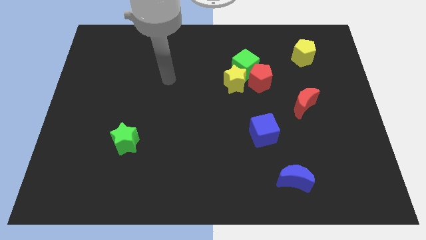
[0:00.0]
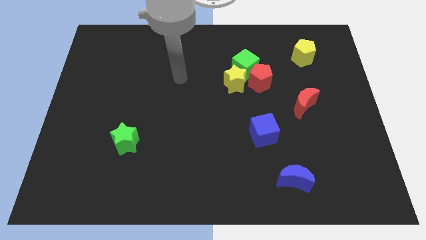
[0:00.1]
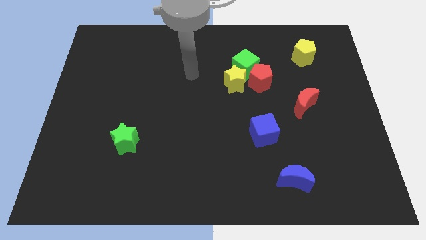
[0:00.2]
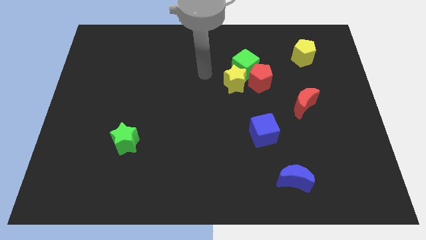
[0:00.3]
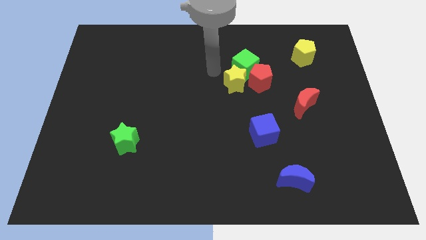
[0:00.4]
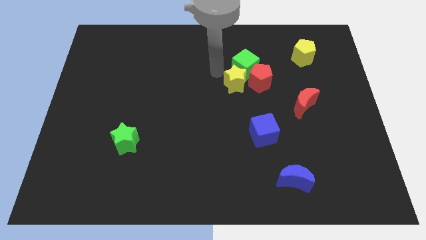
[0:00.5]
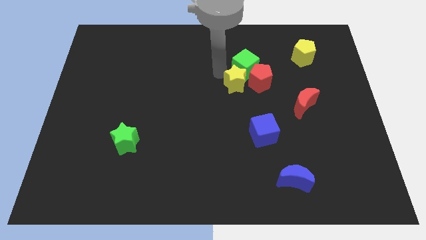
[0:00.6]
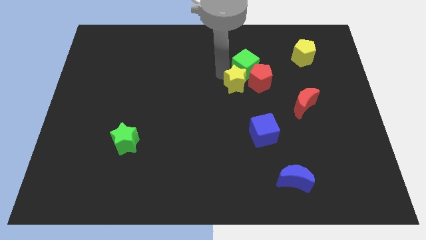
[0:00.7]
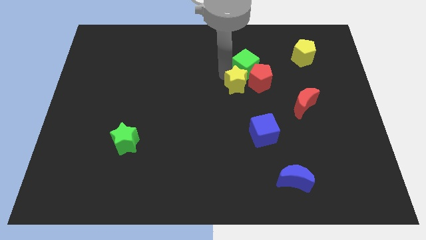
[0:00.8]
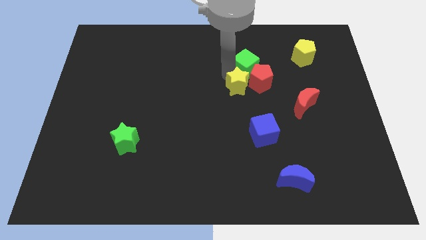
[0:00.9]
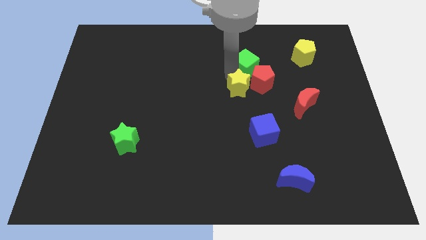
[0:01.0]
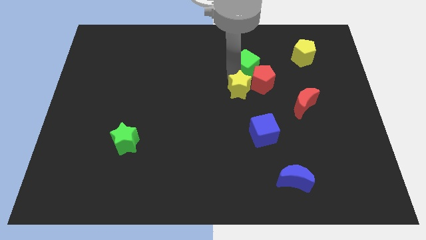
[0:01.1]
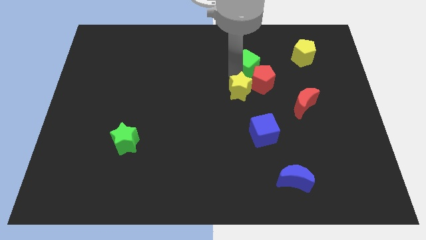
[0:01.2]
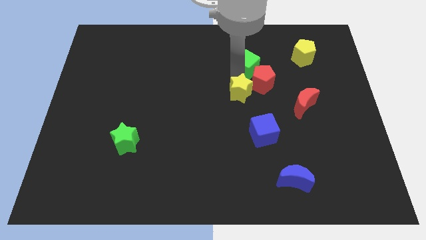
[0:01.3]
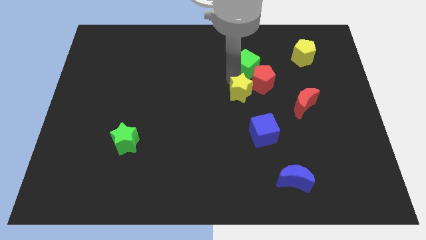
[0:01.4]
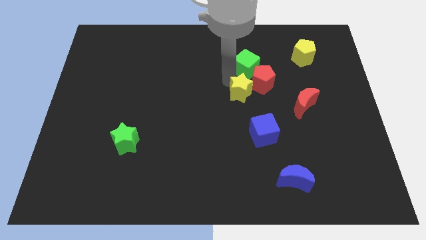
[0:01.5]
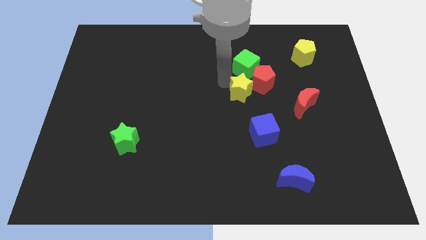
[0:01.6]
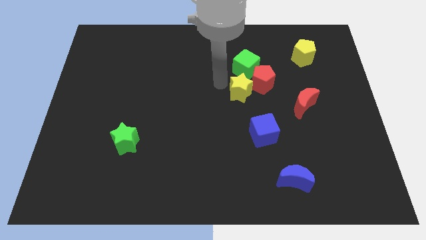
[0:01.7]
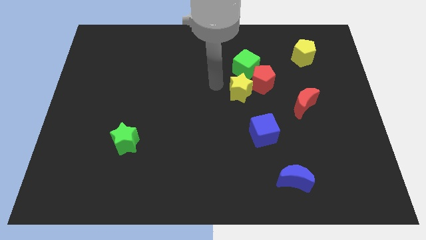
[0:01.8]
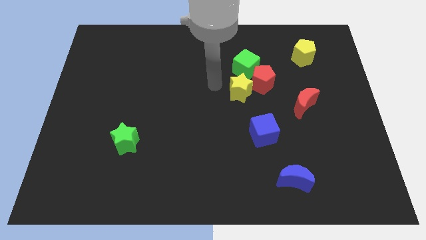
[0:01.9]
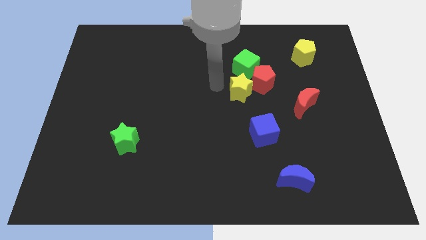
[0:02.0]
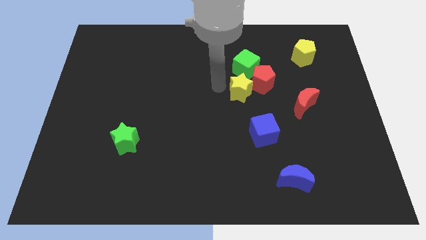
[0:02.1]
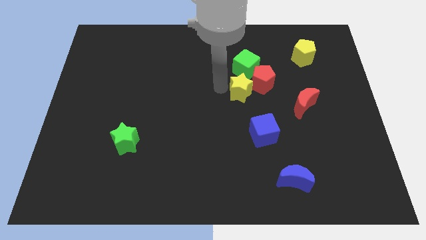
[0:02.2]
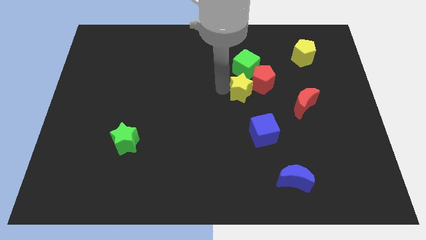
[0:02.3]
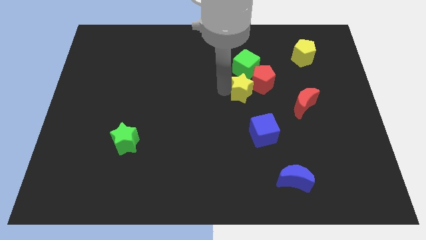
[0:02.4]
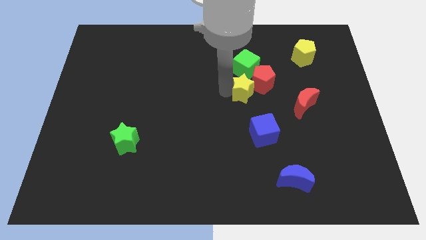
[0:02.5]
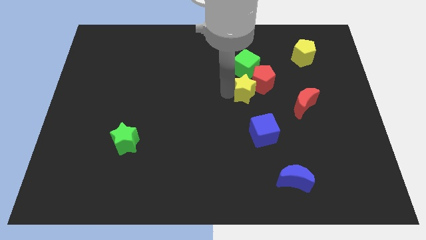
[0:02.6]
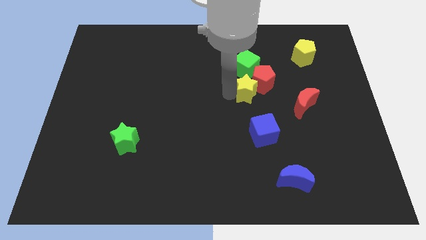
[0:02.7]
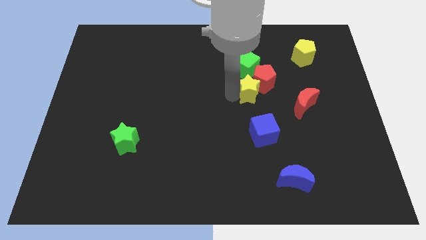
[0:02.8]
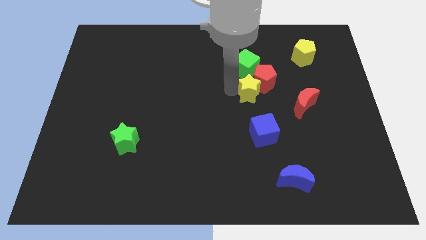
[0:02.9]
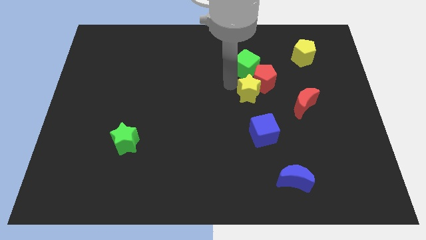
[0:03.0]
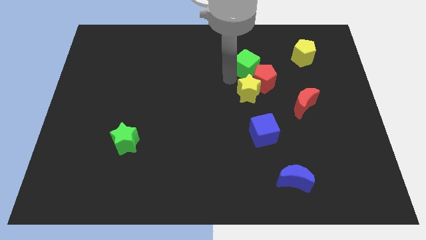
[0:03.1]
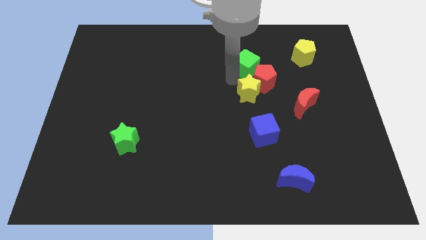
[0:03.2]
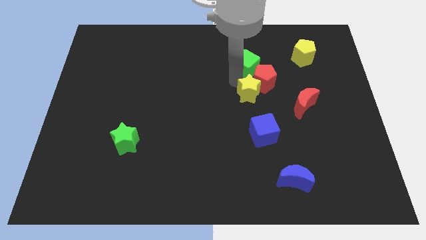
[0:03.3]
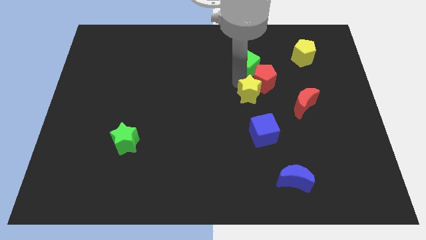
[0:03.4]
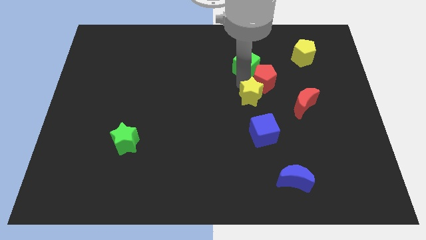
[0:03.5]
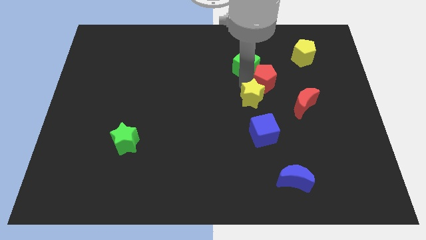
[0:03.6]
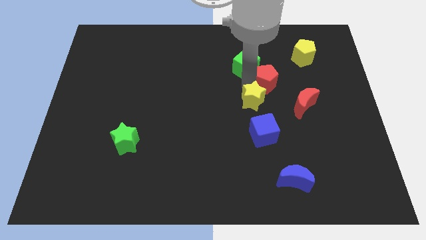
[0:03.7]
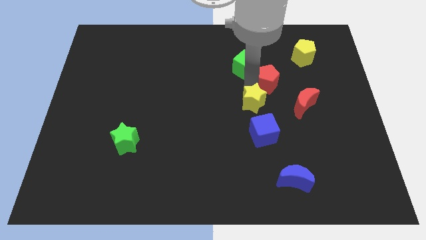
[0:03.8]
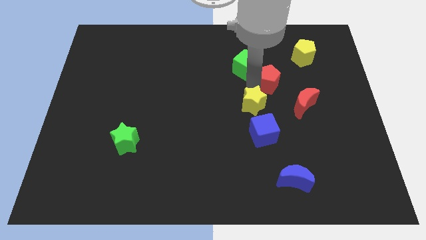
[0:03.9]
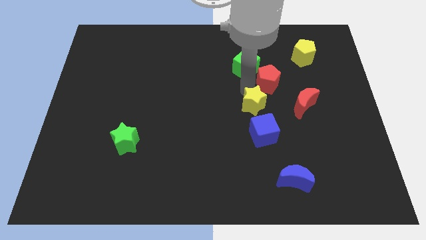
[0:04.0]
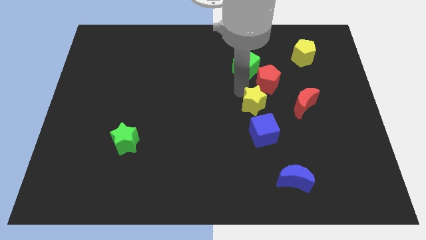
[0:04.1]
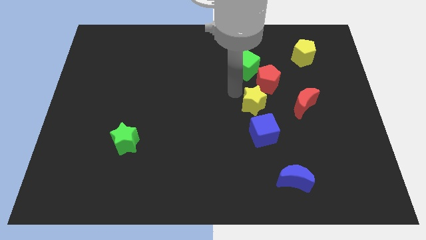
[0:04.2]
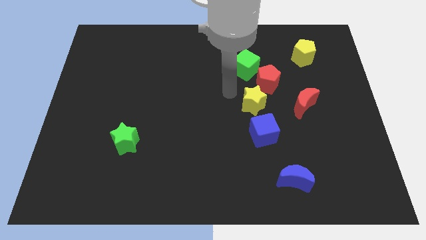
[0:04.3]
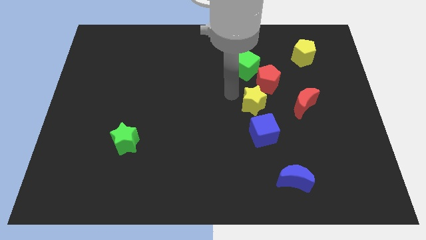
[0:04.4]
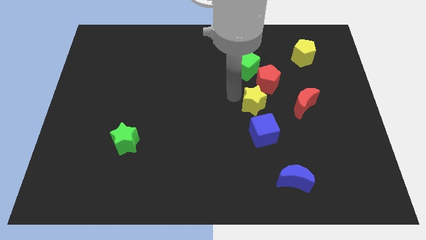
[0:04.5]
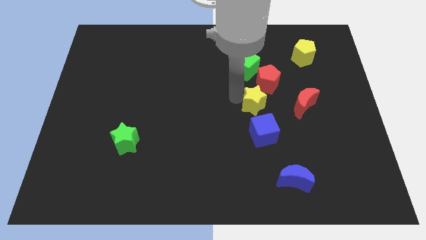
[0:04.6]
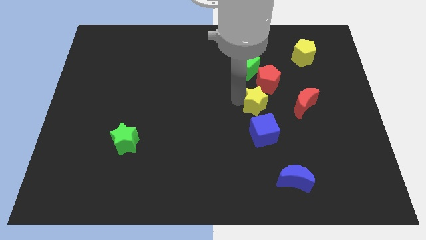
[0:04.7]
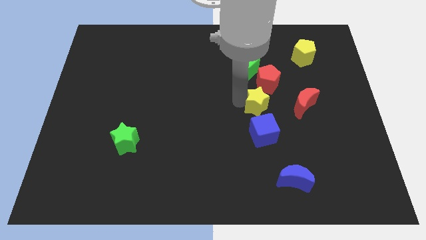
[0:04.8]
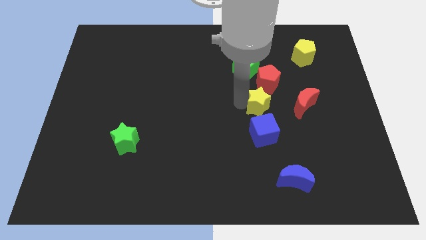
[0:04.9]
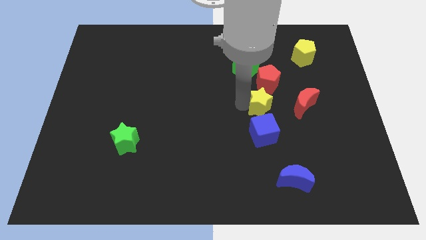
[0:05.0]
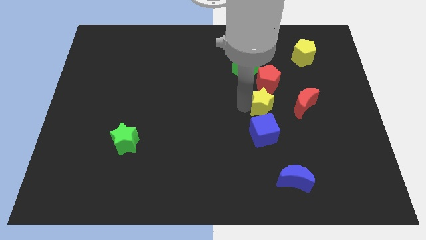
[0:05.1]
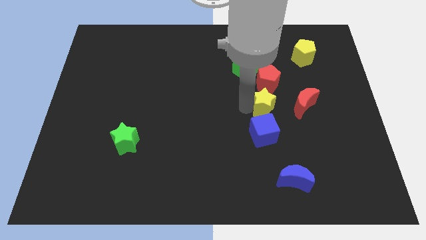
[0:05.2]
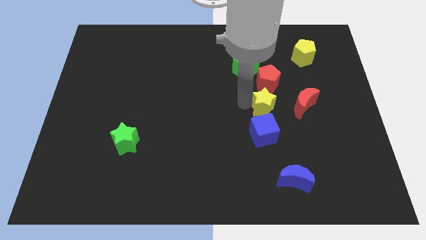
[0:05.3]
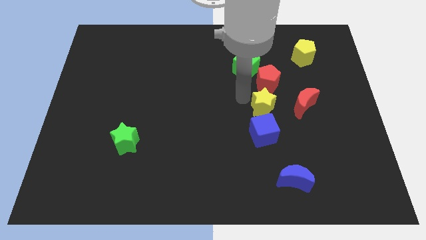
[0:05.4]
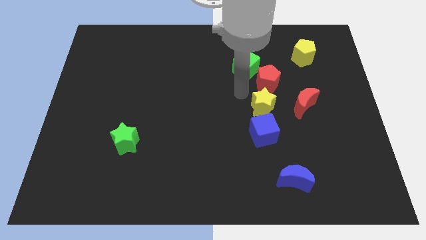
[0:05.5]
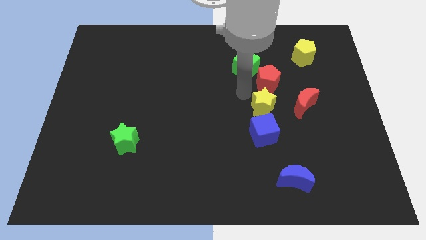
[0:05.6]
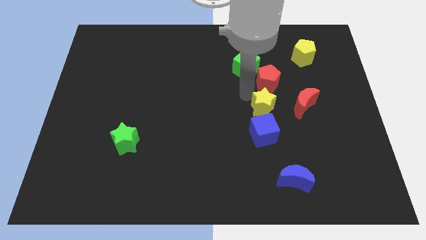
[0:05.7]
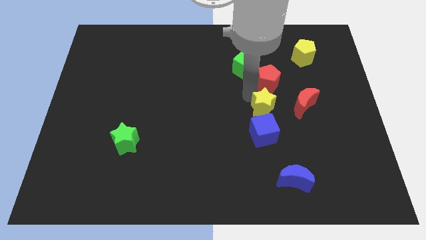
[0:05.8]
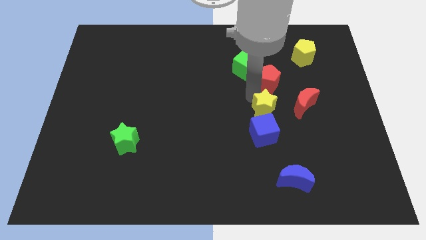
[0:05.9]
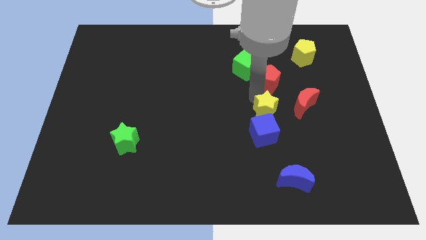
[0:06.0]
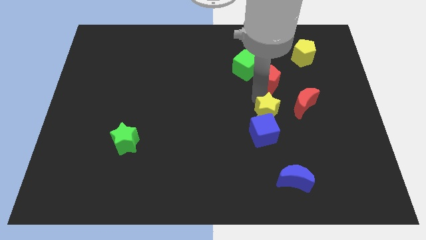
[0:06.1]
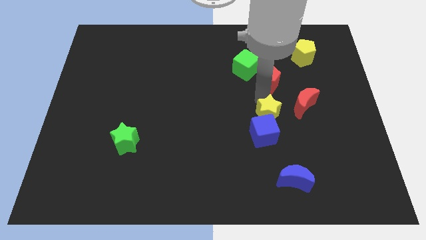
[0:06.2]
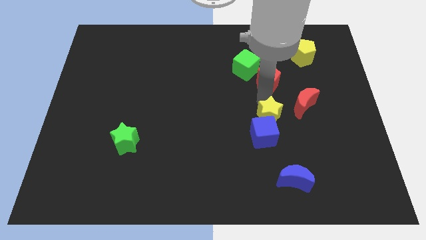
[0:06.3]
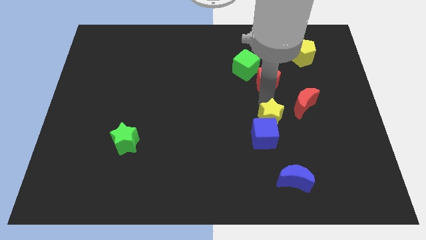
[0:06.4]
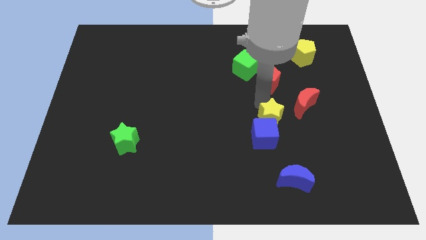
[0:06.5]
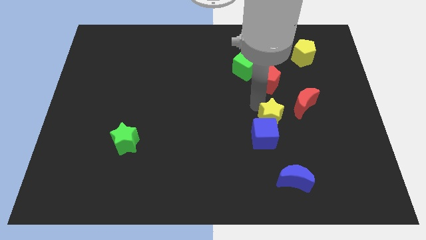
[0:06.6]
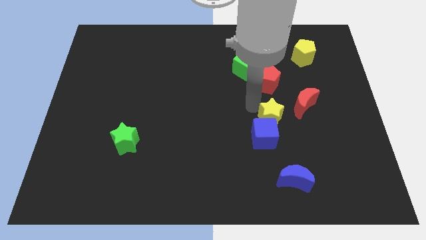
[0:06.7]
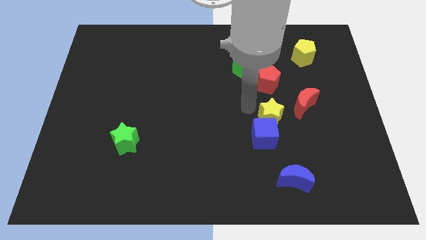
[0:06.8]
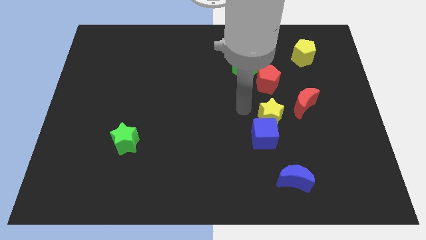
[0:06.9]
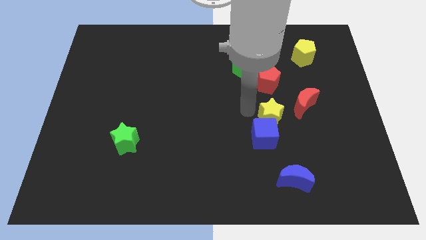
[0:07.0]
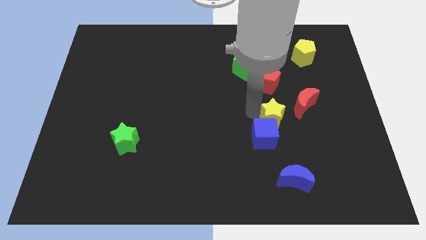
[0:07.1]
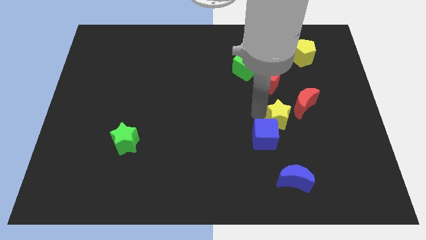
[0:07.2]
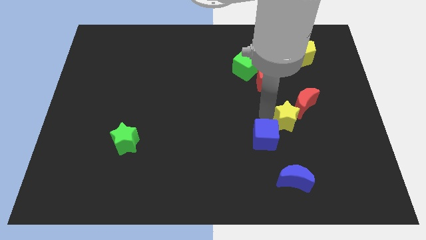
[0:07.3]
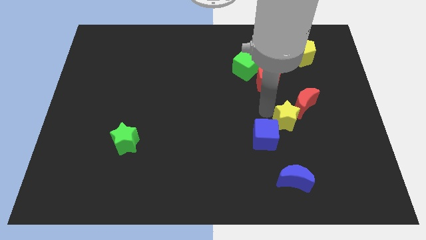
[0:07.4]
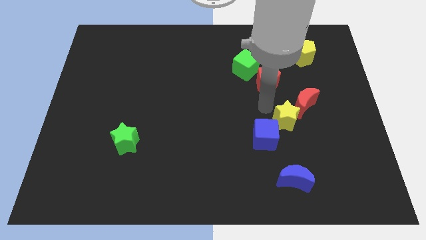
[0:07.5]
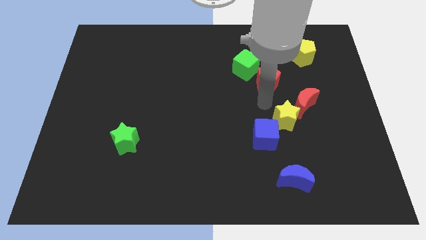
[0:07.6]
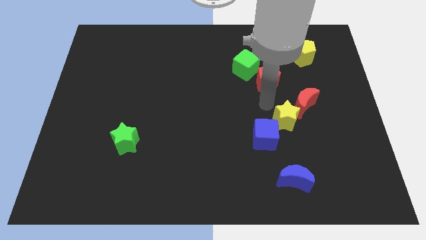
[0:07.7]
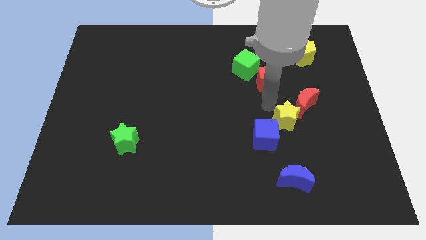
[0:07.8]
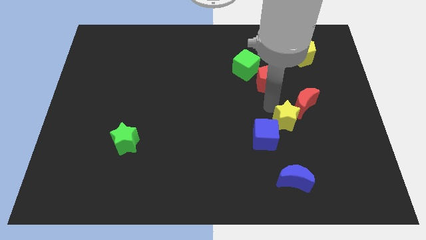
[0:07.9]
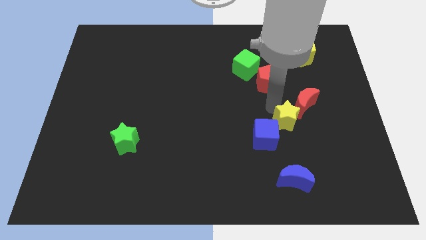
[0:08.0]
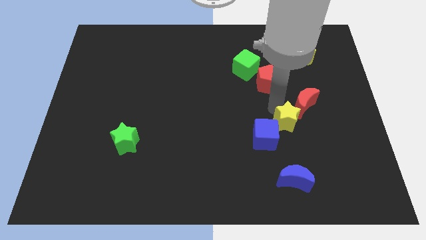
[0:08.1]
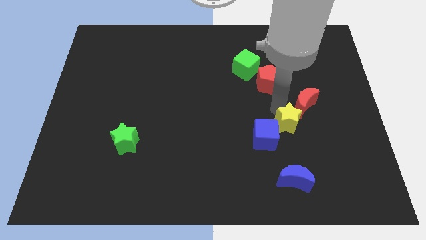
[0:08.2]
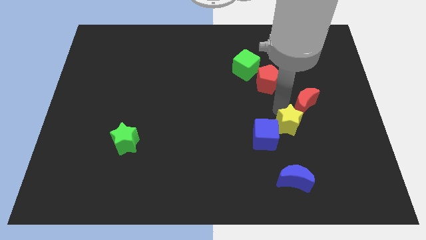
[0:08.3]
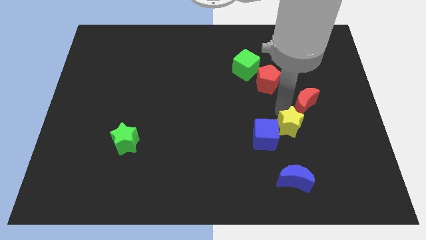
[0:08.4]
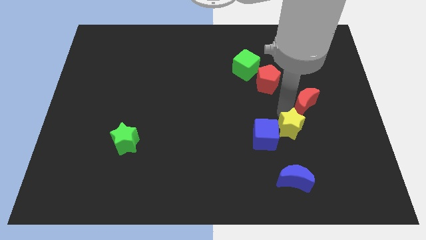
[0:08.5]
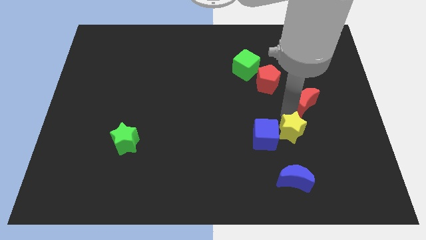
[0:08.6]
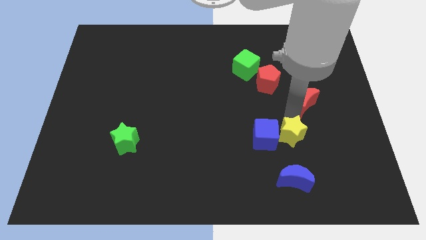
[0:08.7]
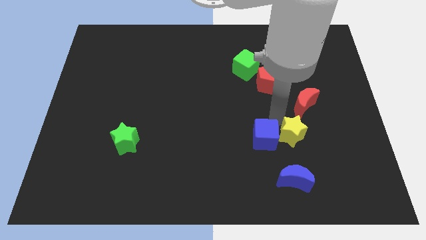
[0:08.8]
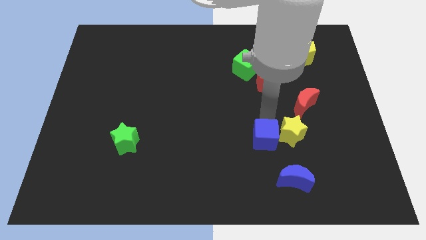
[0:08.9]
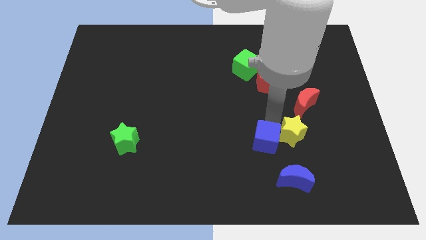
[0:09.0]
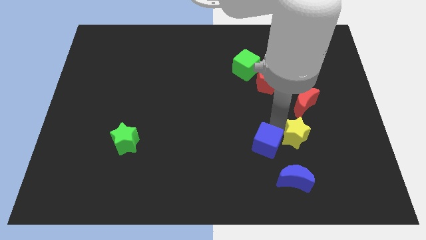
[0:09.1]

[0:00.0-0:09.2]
push the yellow star down and right diagonally
